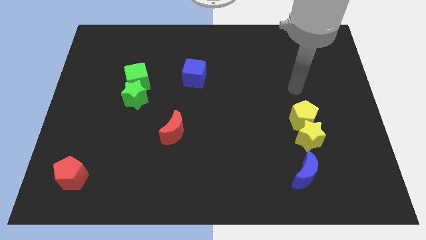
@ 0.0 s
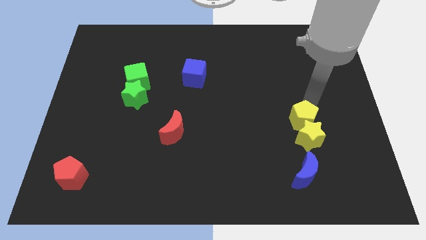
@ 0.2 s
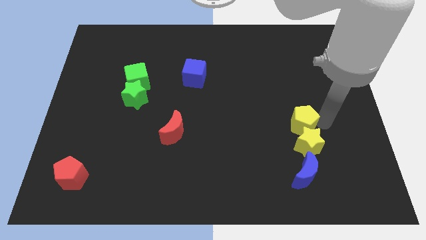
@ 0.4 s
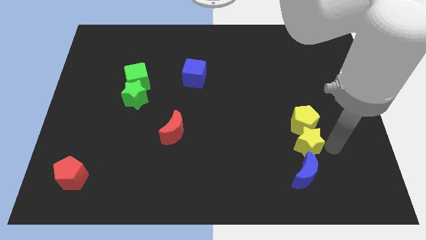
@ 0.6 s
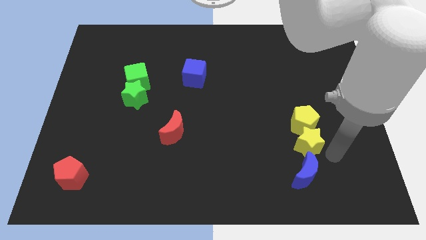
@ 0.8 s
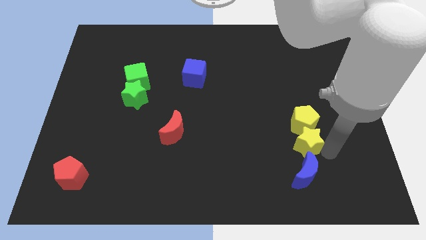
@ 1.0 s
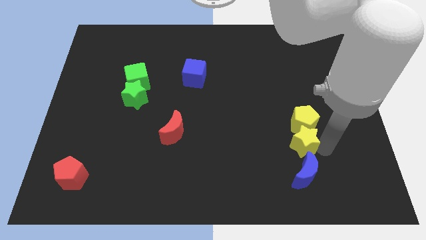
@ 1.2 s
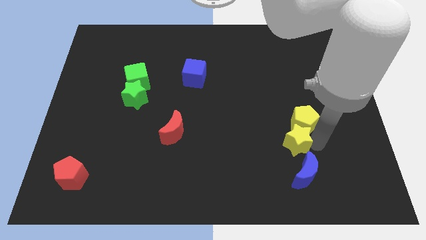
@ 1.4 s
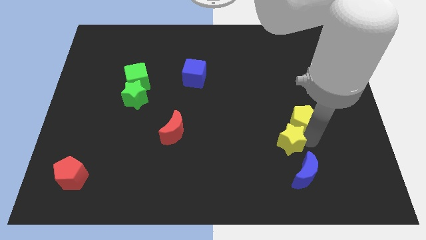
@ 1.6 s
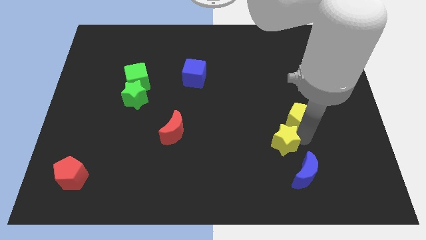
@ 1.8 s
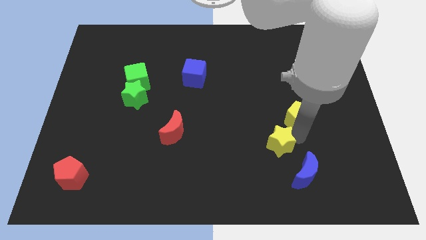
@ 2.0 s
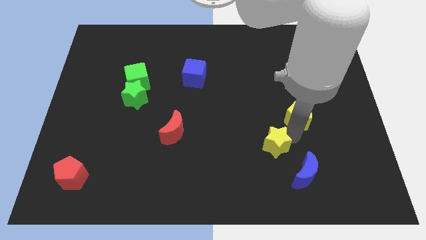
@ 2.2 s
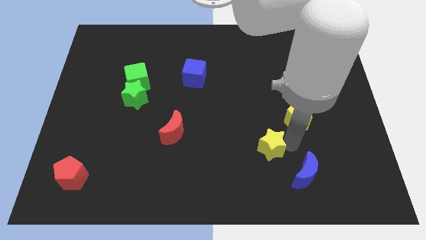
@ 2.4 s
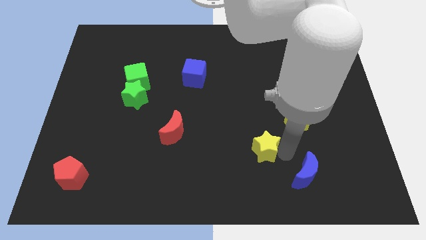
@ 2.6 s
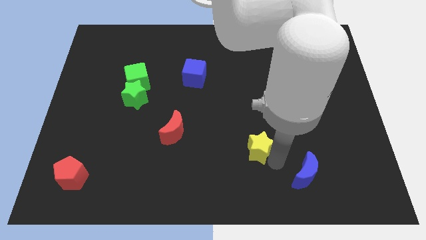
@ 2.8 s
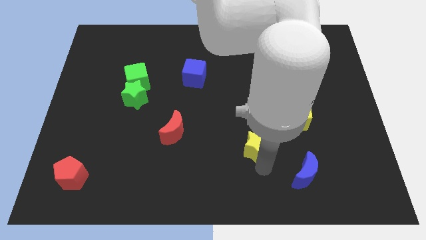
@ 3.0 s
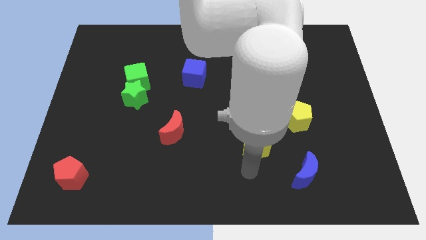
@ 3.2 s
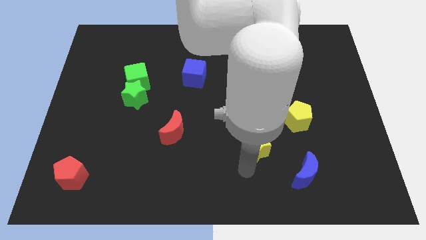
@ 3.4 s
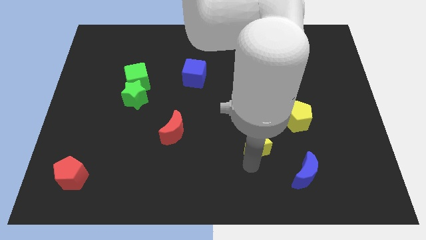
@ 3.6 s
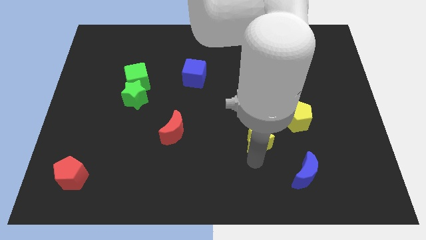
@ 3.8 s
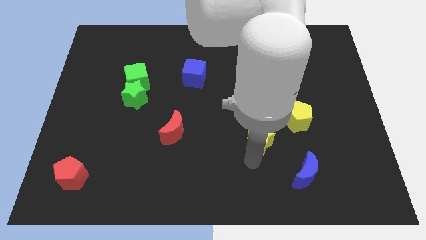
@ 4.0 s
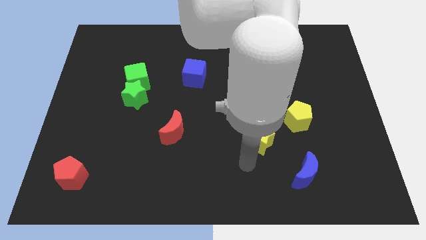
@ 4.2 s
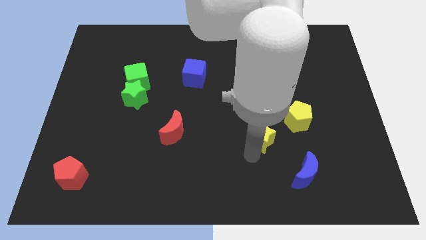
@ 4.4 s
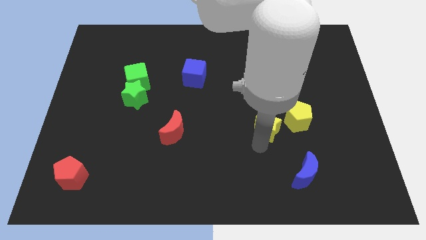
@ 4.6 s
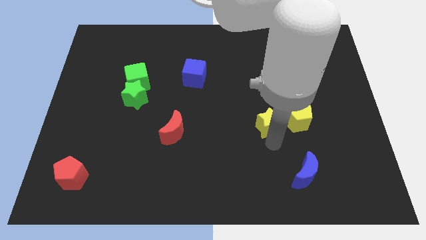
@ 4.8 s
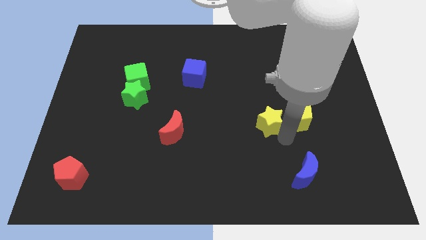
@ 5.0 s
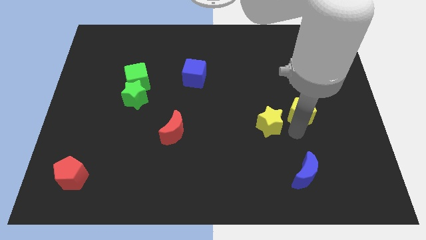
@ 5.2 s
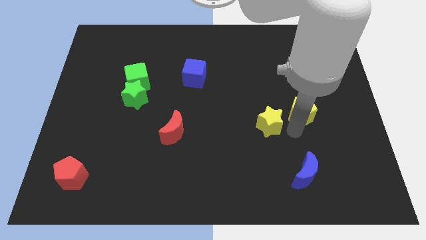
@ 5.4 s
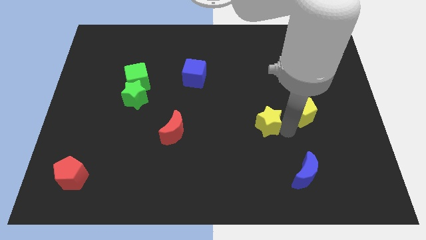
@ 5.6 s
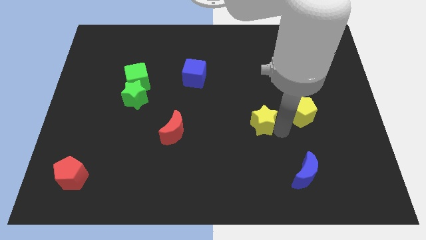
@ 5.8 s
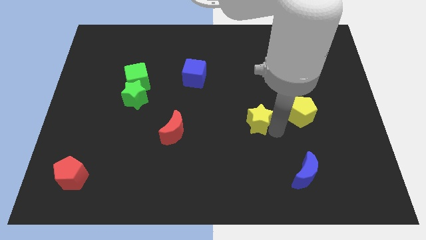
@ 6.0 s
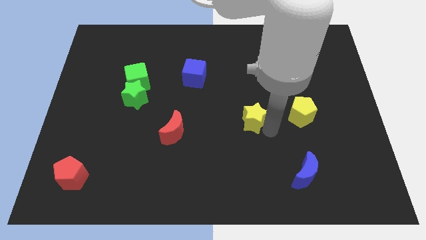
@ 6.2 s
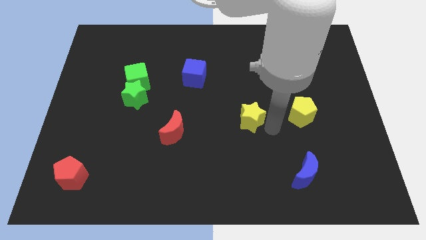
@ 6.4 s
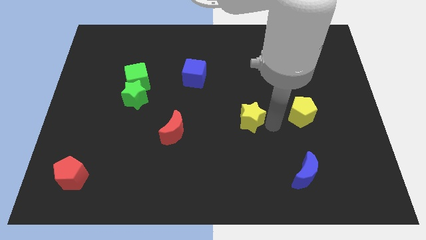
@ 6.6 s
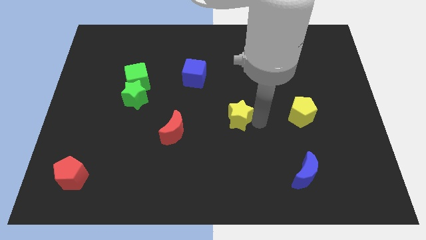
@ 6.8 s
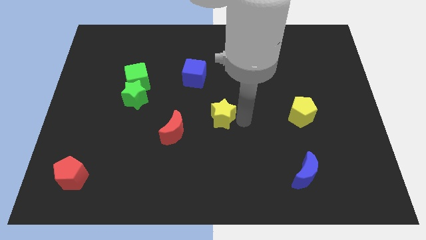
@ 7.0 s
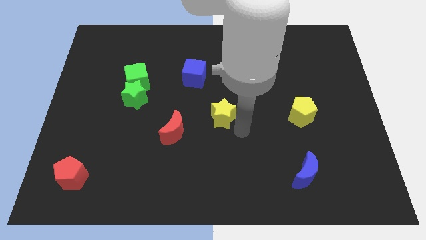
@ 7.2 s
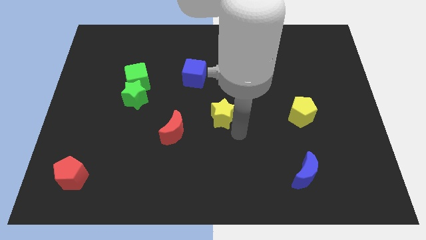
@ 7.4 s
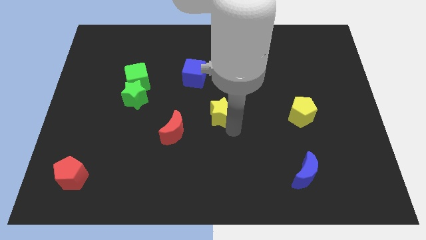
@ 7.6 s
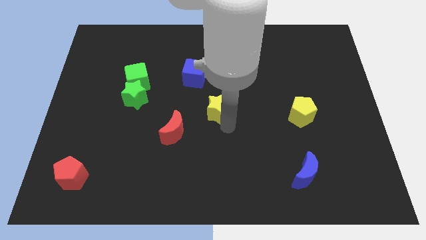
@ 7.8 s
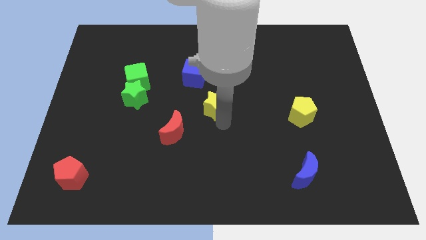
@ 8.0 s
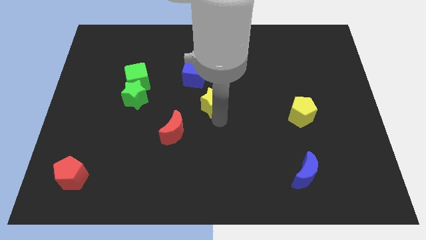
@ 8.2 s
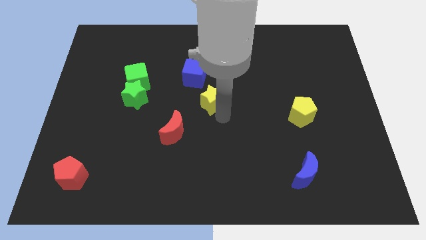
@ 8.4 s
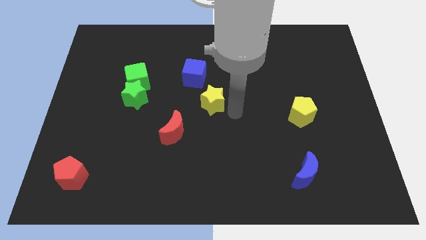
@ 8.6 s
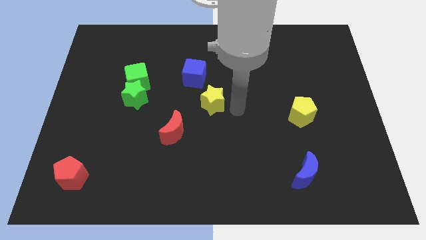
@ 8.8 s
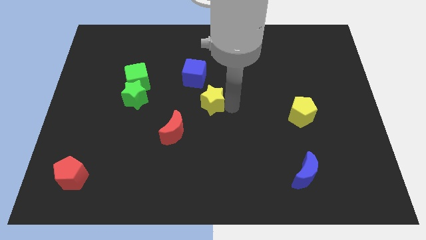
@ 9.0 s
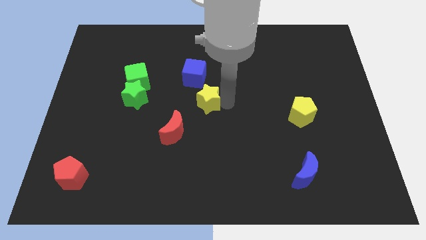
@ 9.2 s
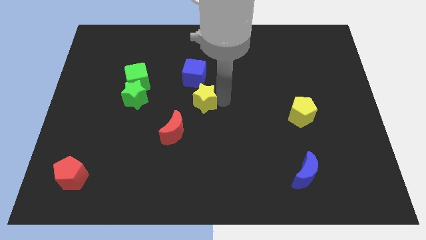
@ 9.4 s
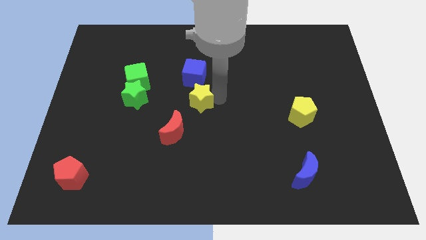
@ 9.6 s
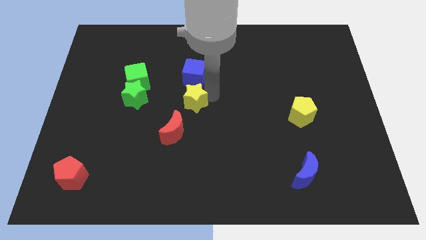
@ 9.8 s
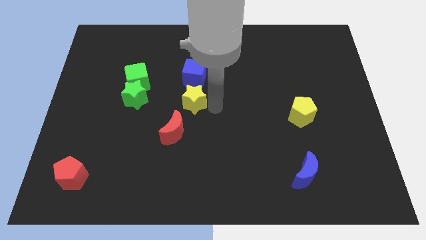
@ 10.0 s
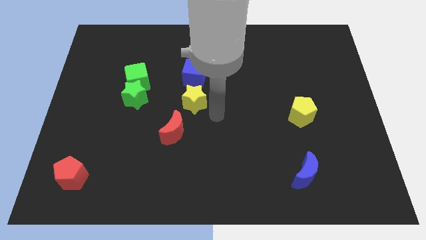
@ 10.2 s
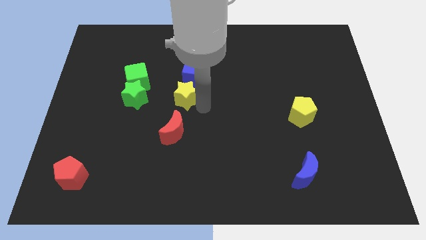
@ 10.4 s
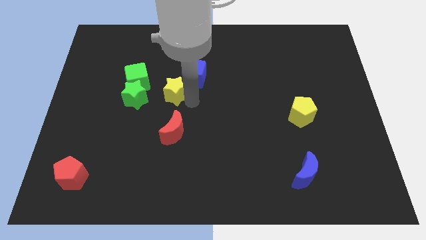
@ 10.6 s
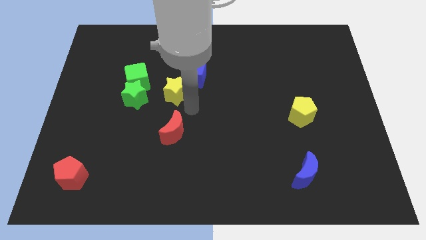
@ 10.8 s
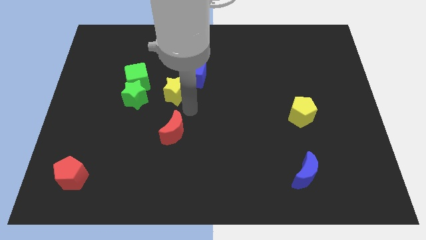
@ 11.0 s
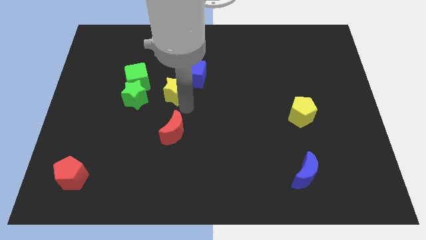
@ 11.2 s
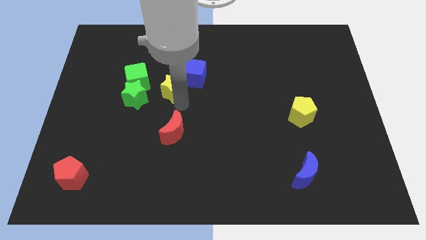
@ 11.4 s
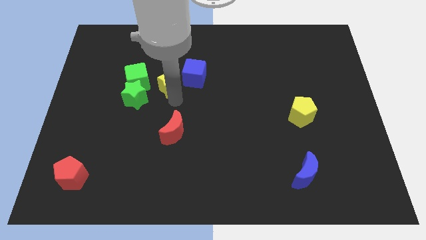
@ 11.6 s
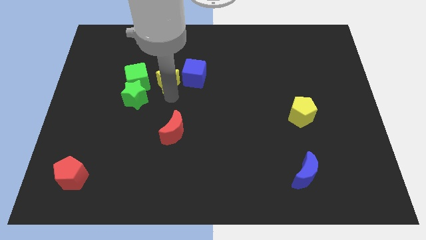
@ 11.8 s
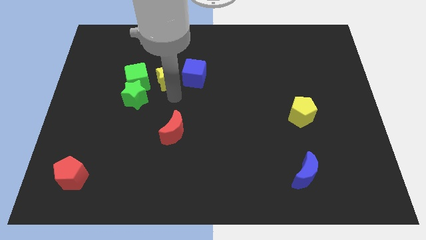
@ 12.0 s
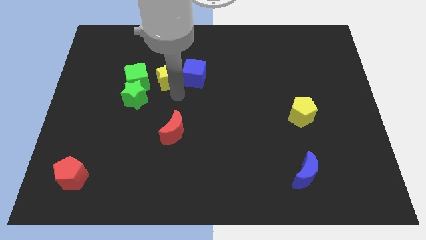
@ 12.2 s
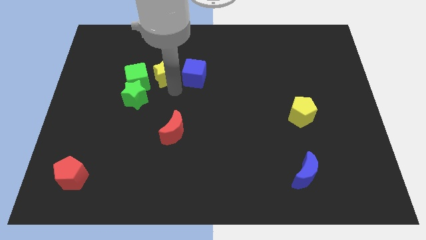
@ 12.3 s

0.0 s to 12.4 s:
slide the yellow star to the top right of the green cube
